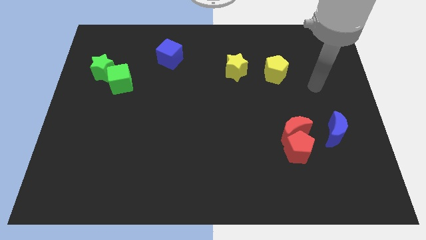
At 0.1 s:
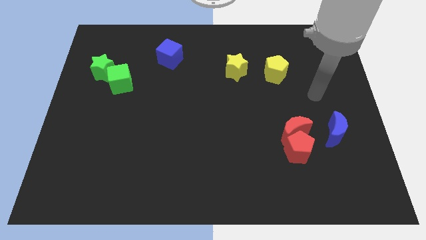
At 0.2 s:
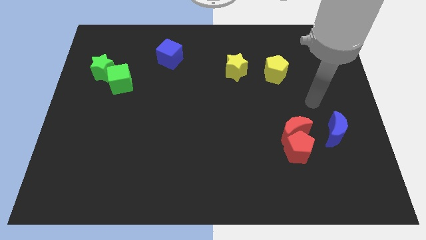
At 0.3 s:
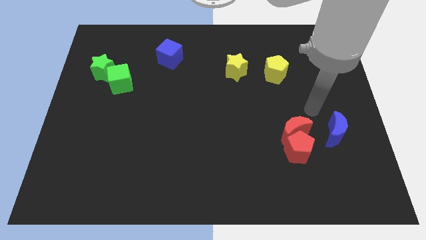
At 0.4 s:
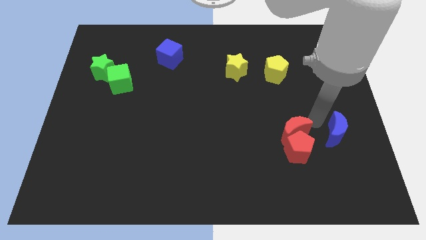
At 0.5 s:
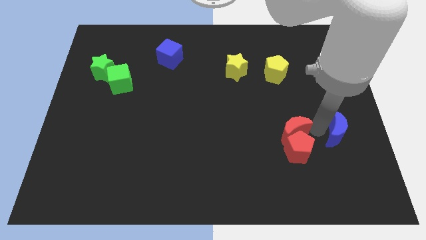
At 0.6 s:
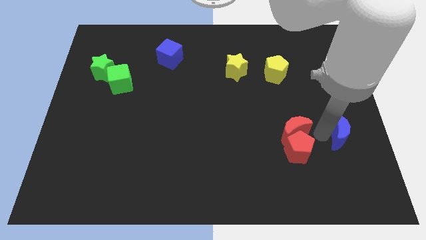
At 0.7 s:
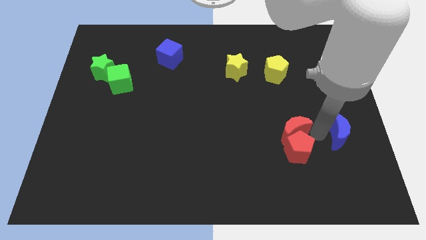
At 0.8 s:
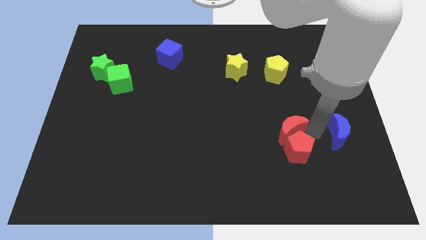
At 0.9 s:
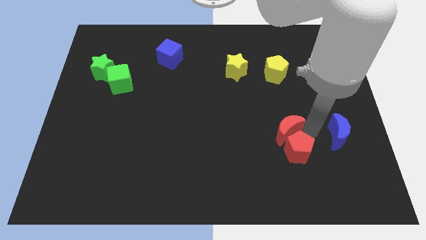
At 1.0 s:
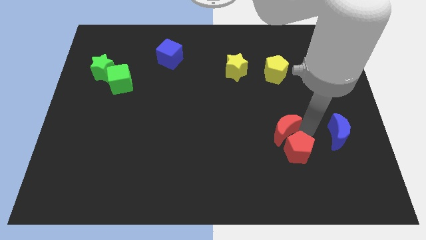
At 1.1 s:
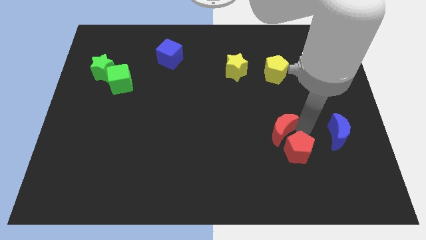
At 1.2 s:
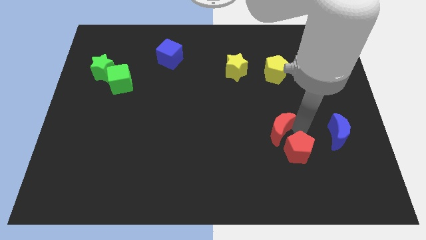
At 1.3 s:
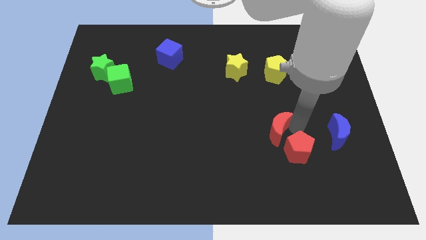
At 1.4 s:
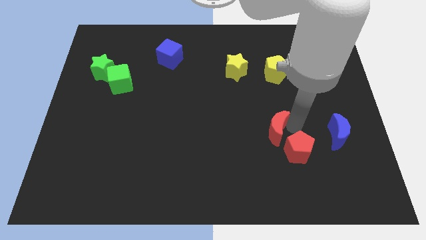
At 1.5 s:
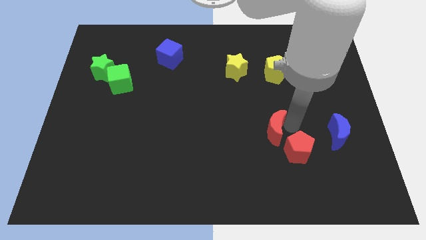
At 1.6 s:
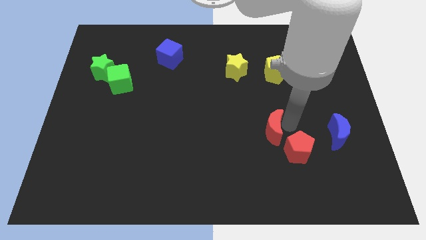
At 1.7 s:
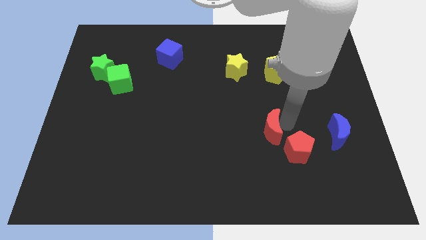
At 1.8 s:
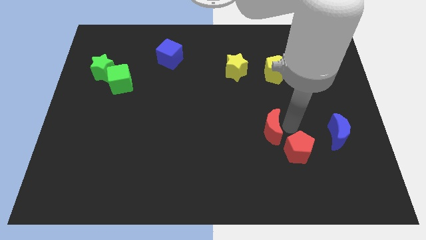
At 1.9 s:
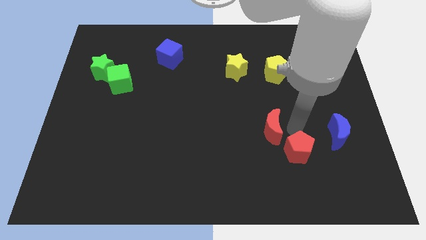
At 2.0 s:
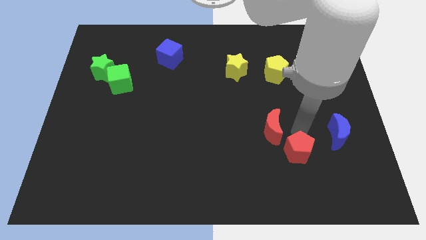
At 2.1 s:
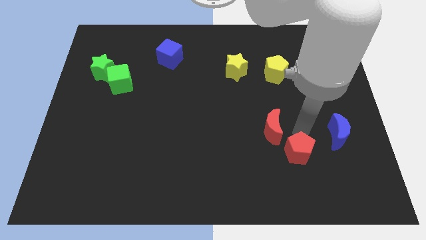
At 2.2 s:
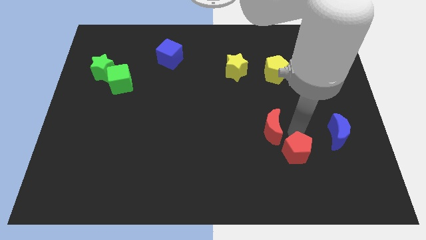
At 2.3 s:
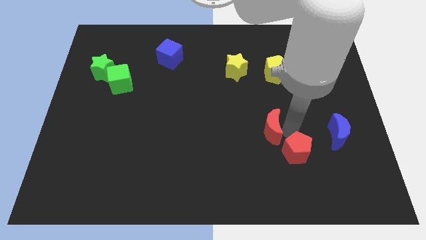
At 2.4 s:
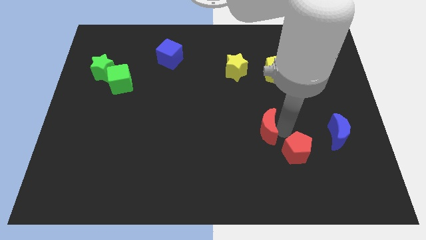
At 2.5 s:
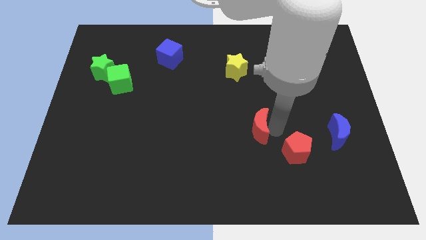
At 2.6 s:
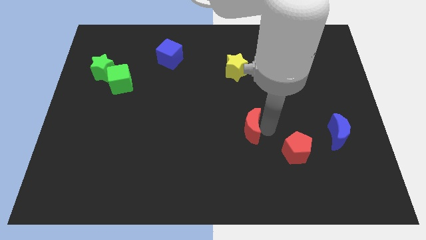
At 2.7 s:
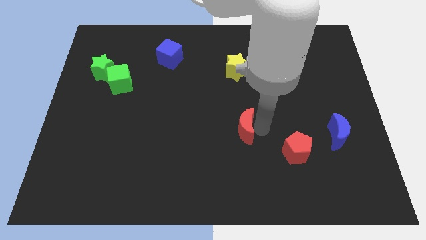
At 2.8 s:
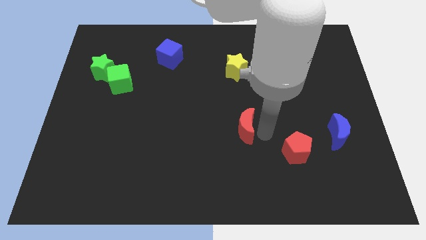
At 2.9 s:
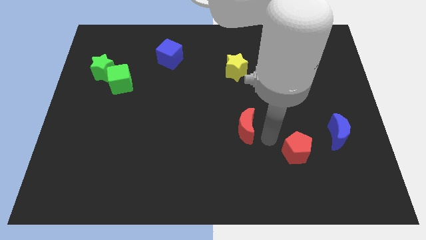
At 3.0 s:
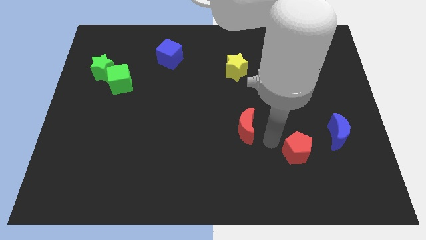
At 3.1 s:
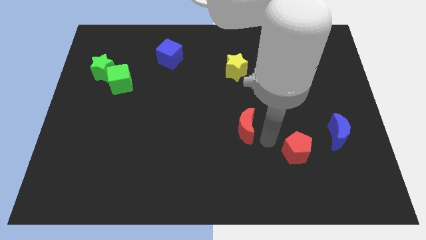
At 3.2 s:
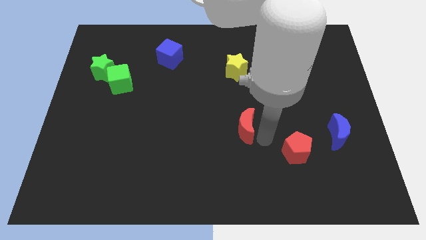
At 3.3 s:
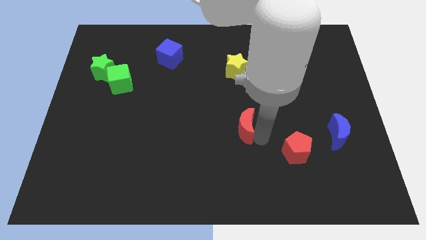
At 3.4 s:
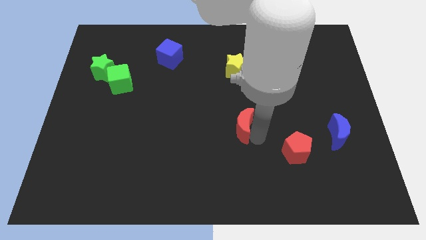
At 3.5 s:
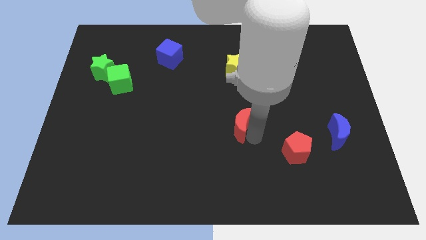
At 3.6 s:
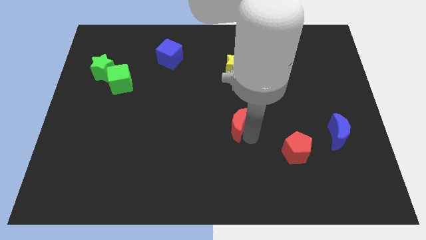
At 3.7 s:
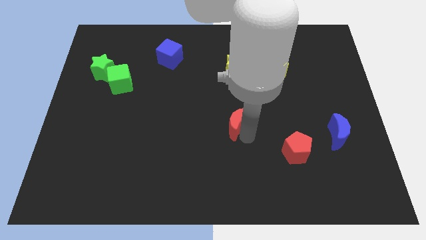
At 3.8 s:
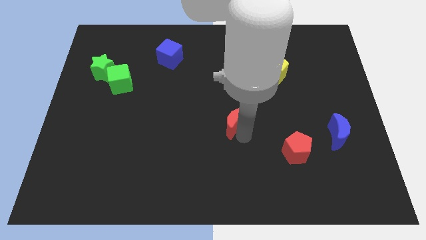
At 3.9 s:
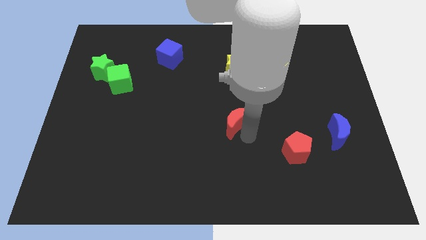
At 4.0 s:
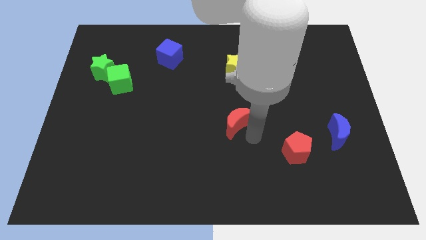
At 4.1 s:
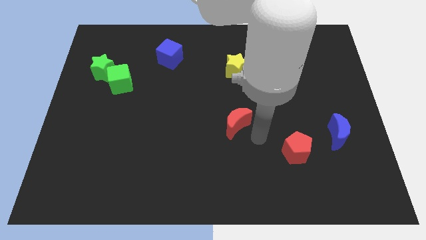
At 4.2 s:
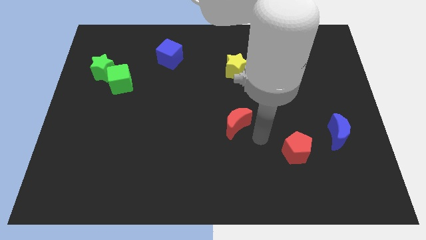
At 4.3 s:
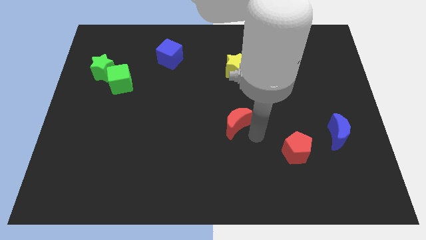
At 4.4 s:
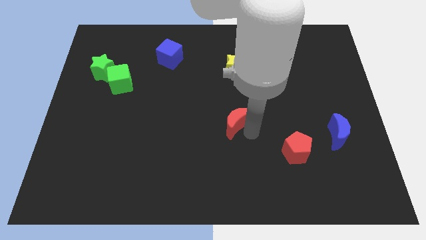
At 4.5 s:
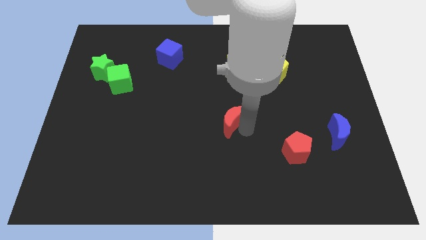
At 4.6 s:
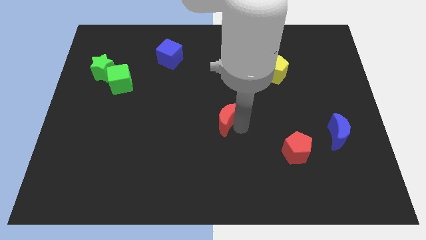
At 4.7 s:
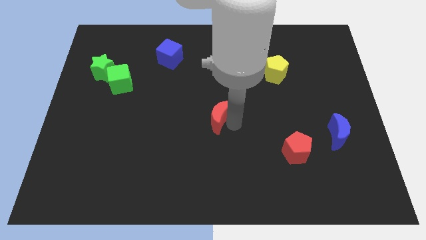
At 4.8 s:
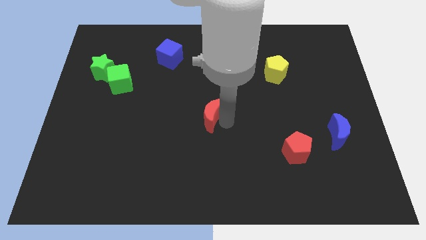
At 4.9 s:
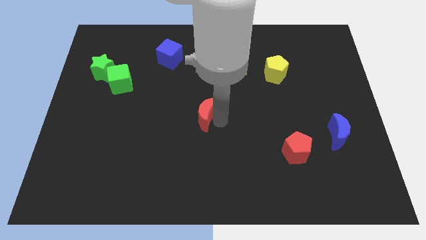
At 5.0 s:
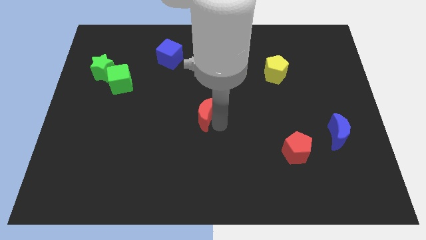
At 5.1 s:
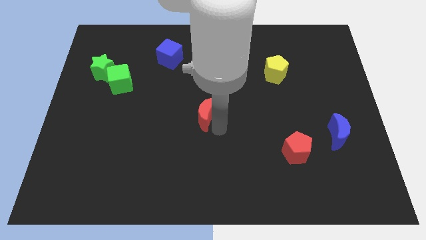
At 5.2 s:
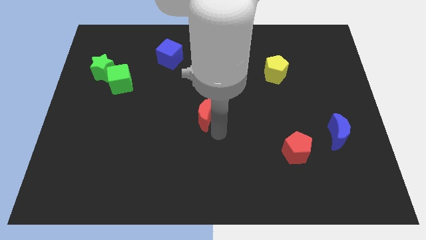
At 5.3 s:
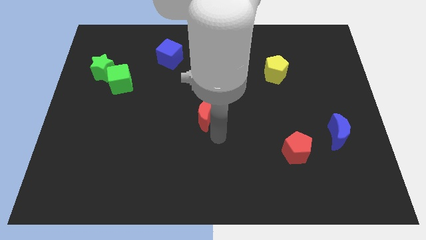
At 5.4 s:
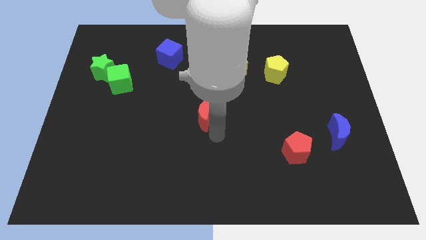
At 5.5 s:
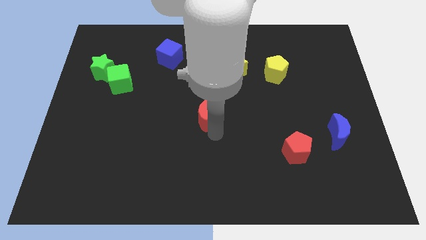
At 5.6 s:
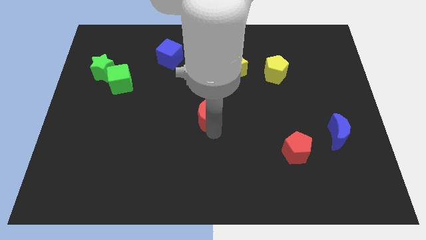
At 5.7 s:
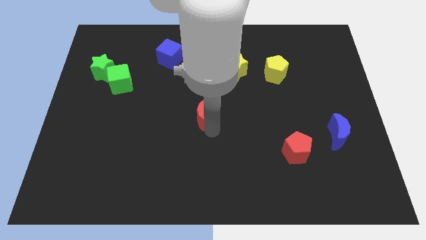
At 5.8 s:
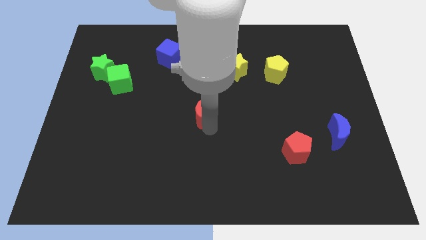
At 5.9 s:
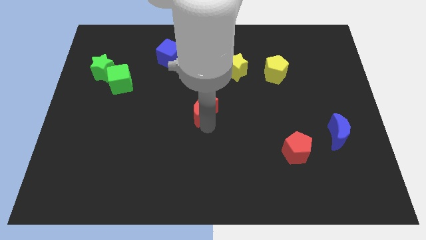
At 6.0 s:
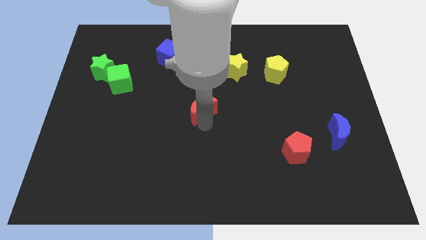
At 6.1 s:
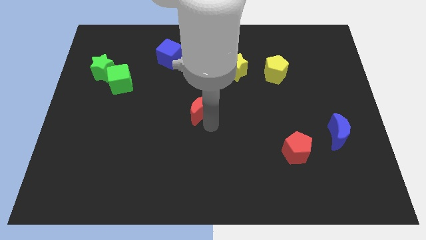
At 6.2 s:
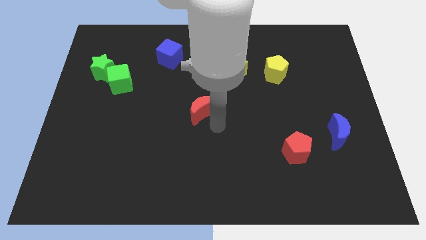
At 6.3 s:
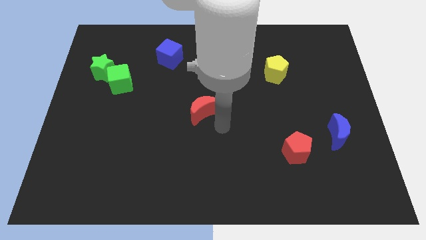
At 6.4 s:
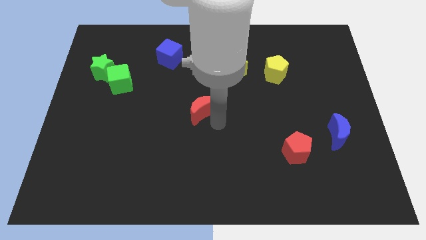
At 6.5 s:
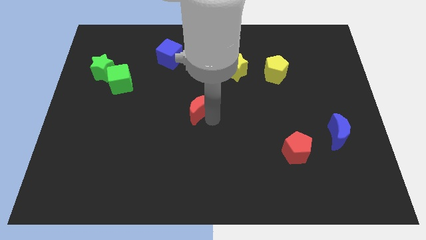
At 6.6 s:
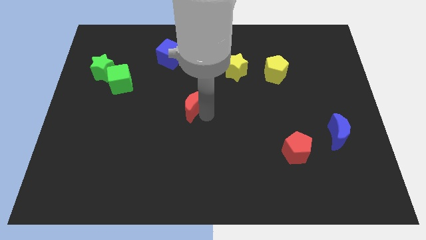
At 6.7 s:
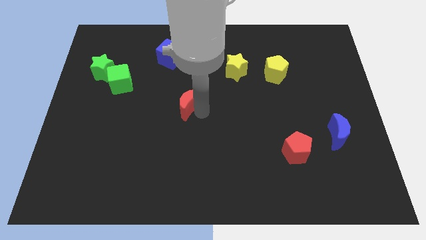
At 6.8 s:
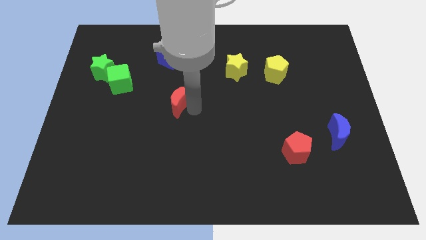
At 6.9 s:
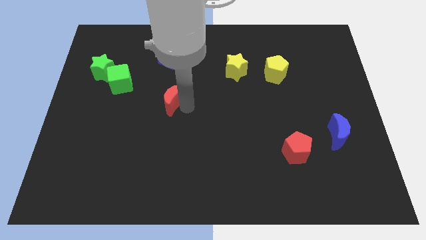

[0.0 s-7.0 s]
put the red moon to the bottom of the blue cube

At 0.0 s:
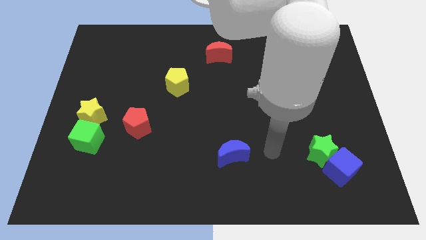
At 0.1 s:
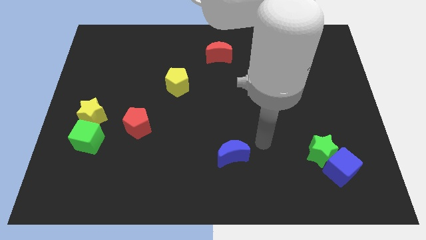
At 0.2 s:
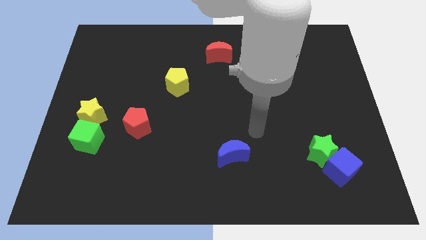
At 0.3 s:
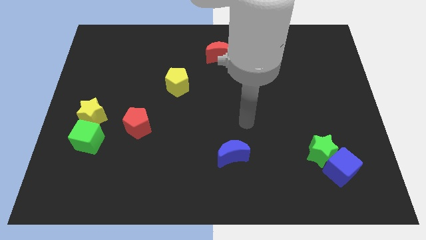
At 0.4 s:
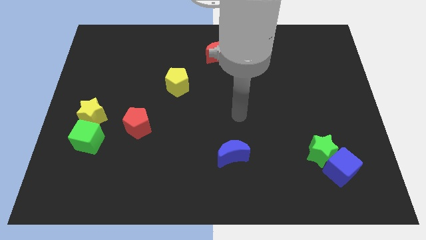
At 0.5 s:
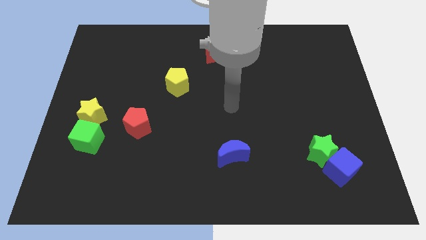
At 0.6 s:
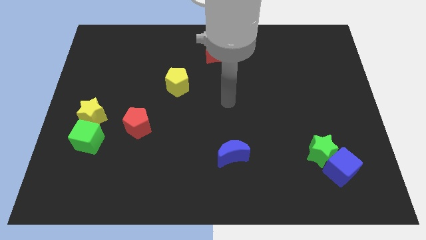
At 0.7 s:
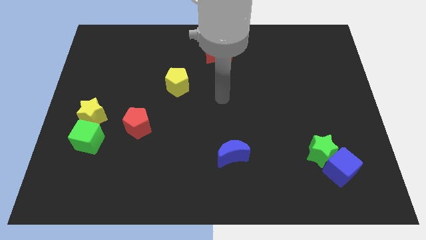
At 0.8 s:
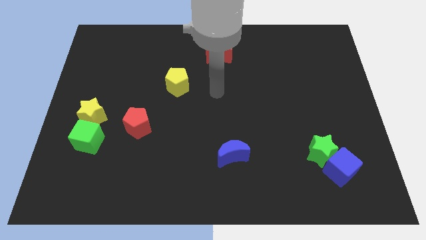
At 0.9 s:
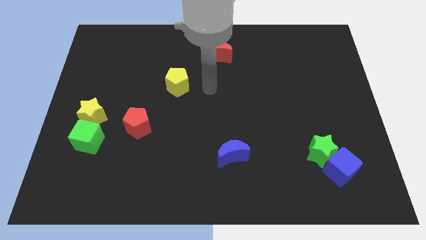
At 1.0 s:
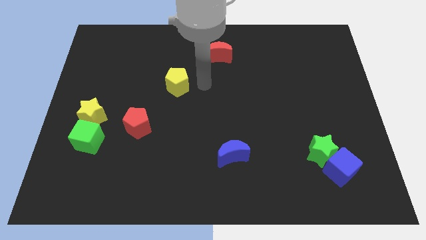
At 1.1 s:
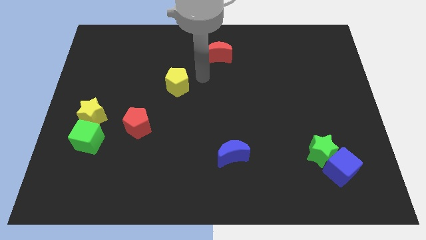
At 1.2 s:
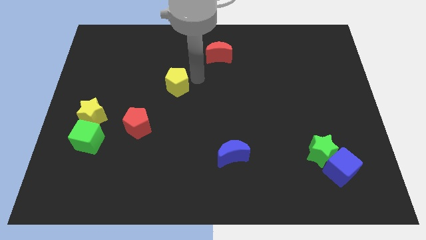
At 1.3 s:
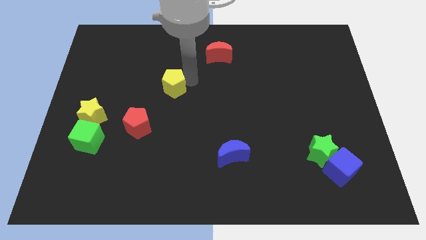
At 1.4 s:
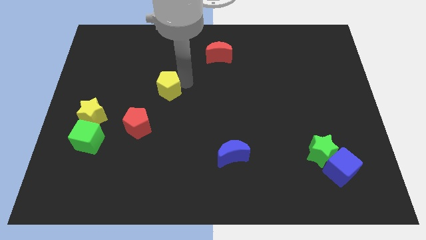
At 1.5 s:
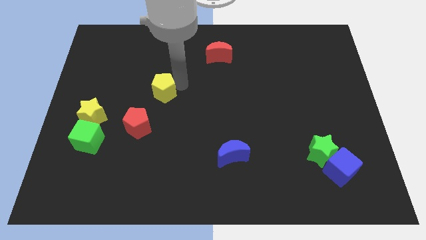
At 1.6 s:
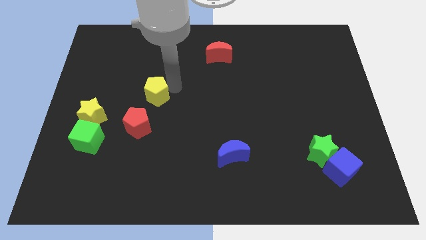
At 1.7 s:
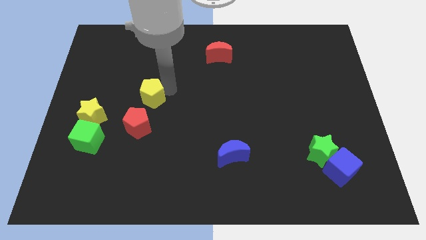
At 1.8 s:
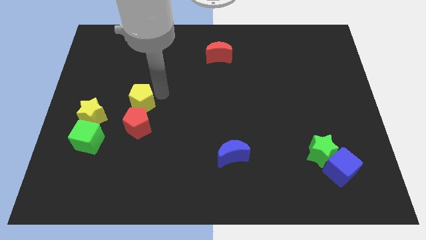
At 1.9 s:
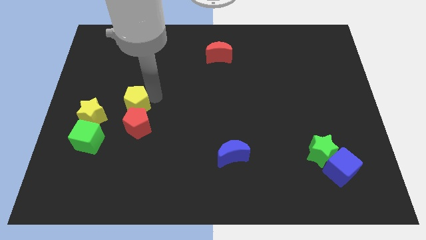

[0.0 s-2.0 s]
move the yellow pentagon to the top left side of the red pentagon
